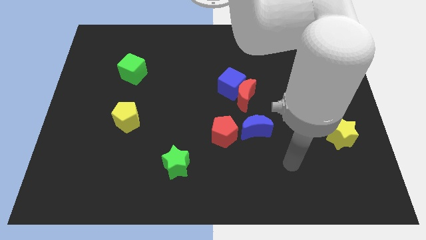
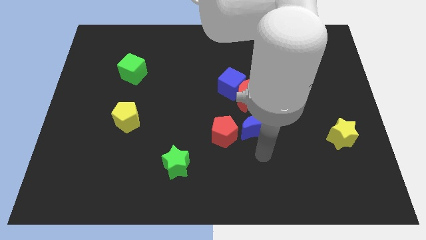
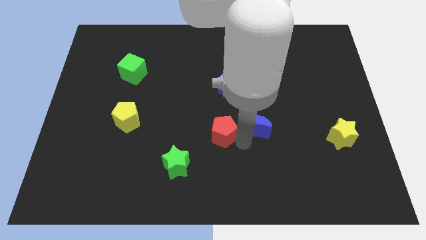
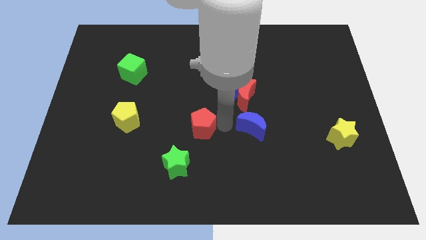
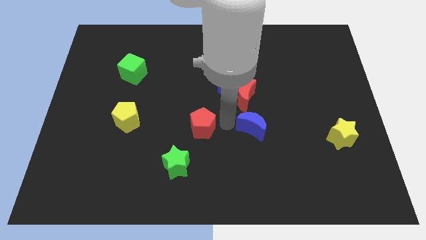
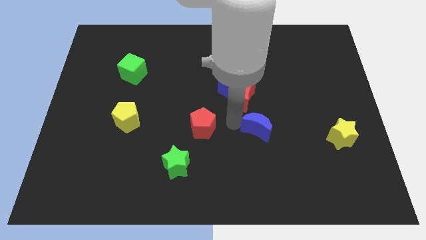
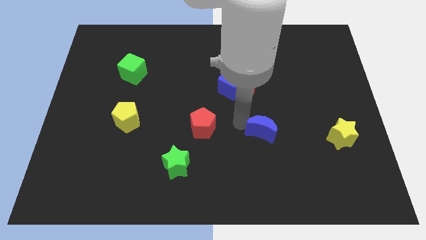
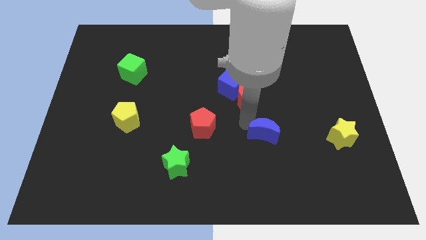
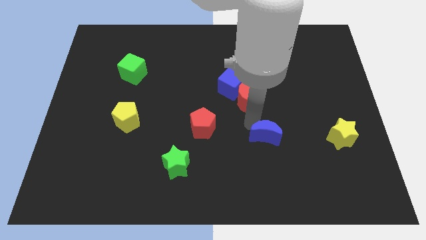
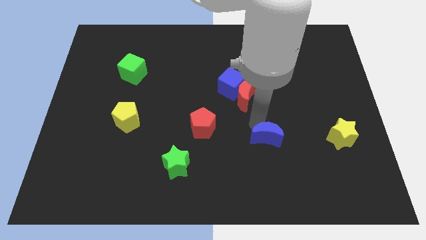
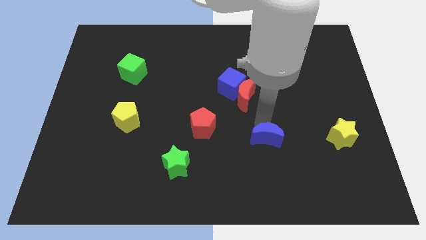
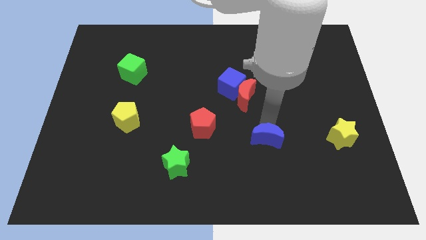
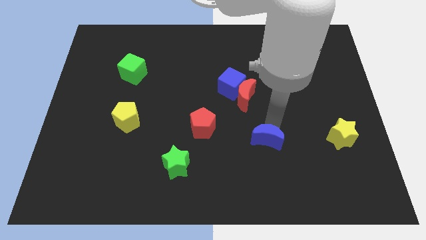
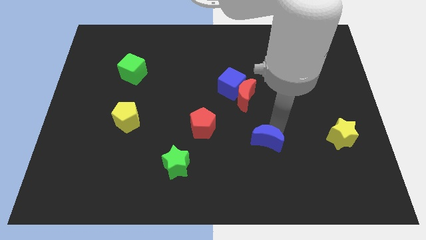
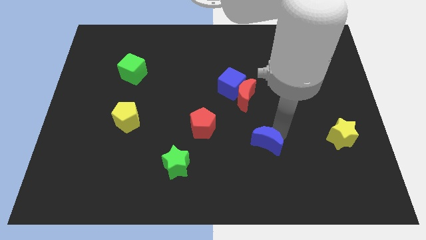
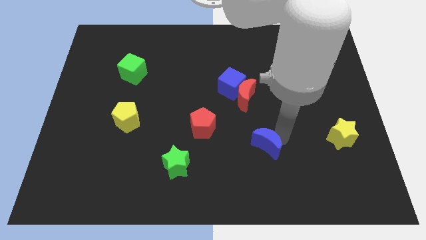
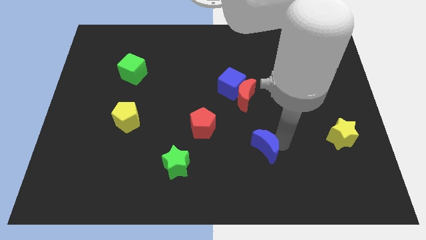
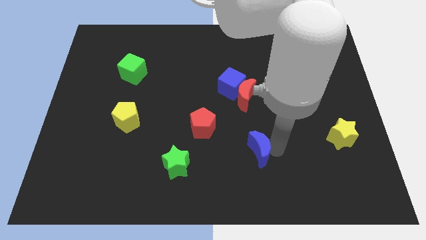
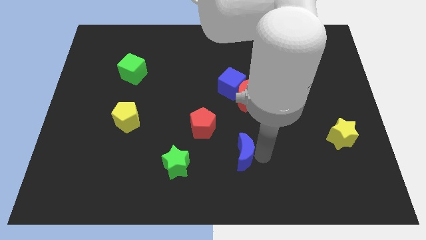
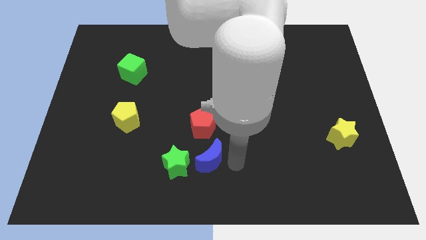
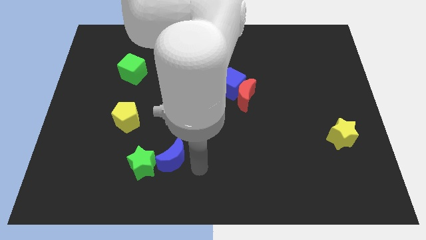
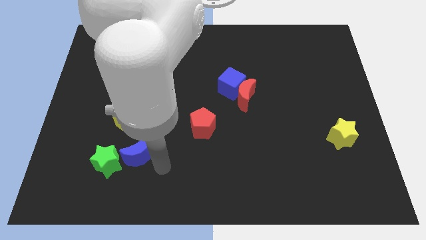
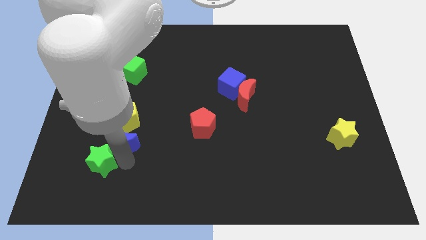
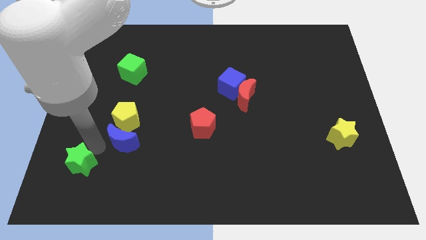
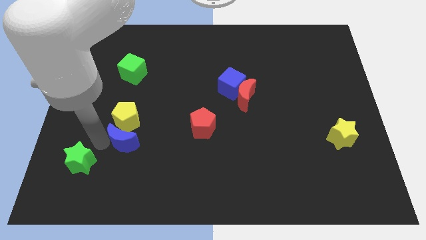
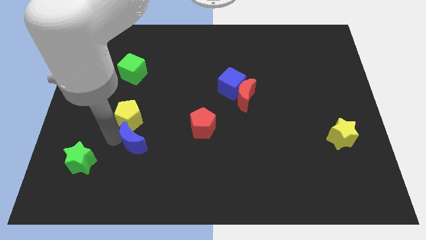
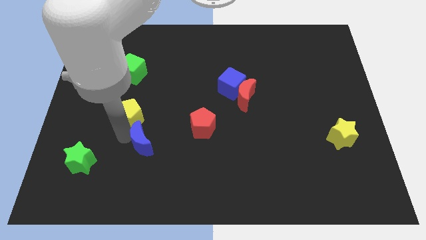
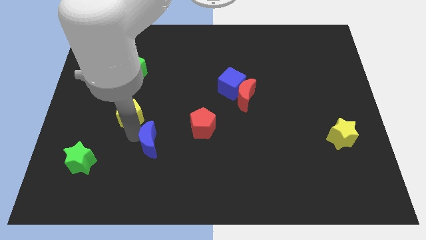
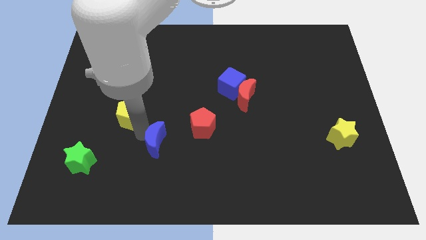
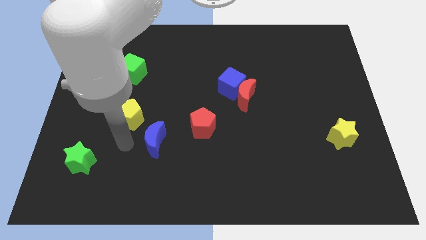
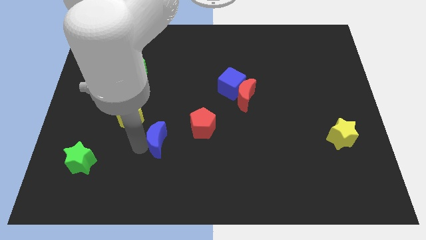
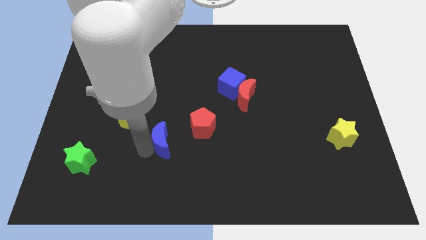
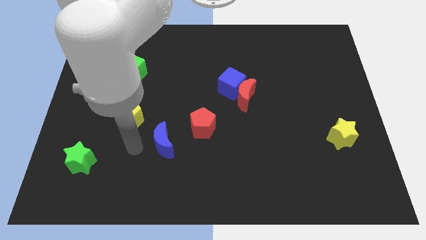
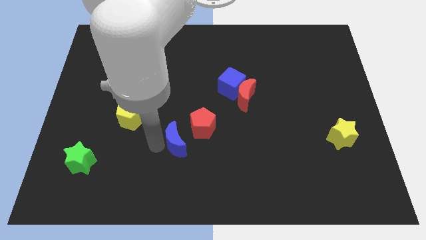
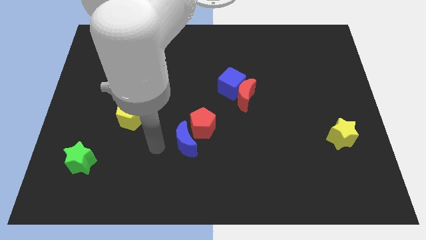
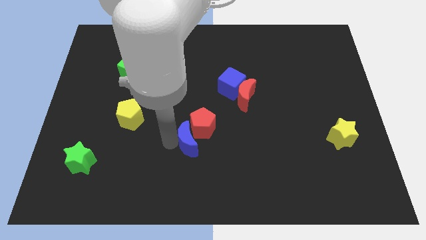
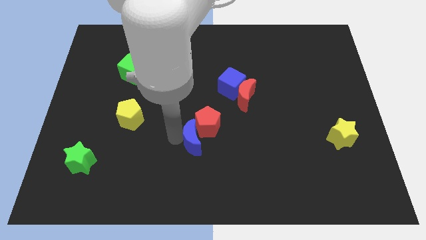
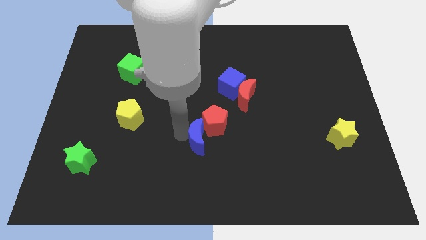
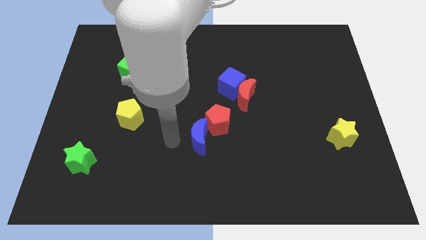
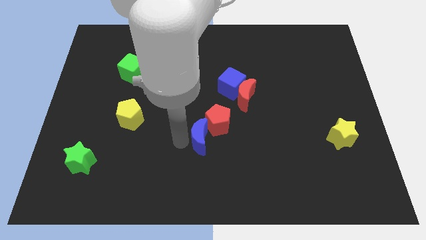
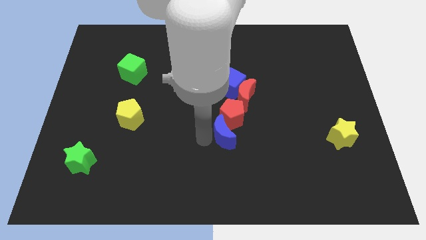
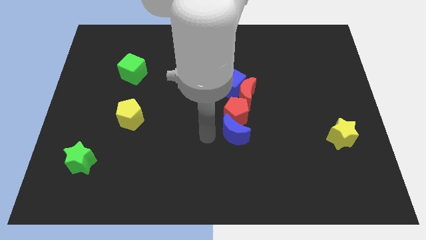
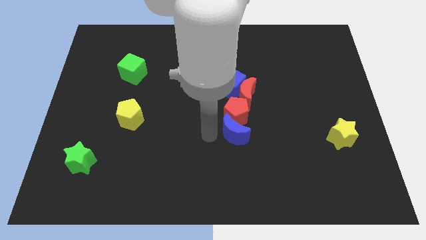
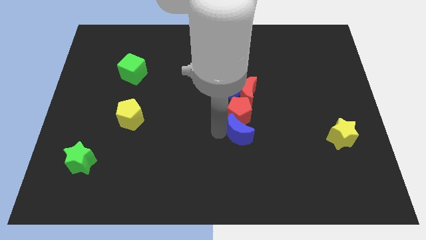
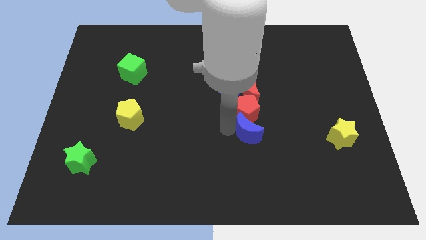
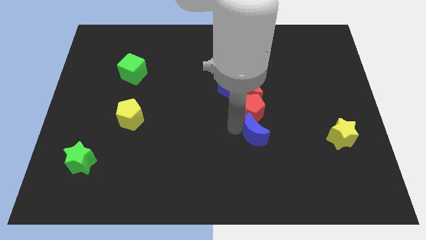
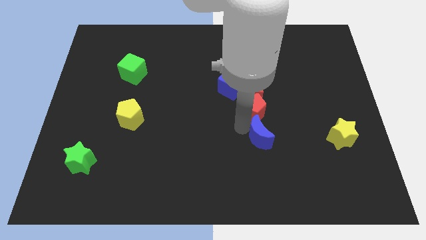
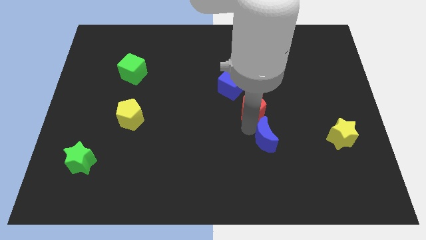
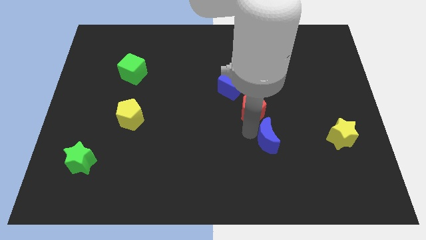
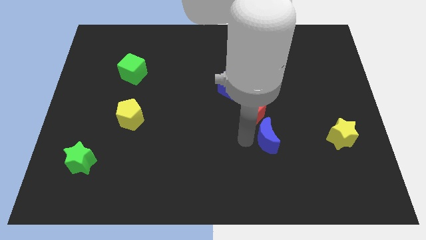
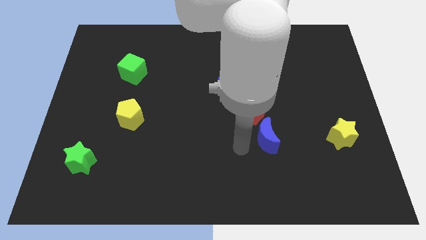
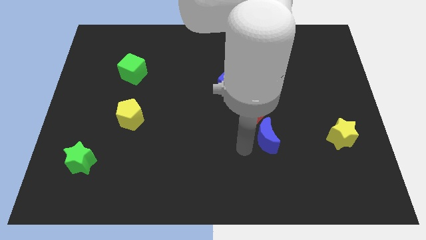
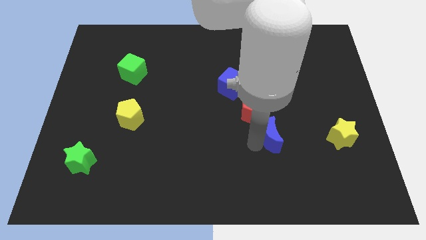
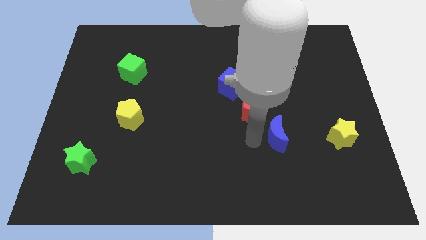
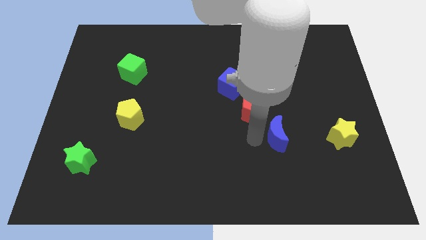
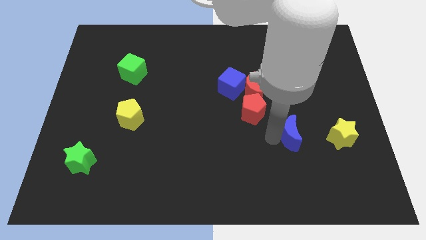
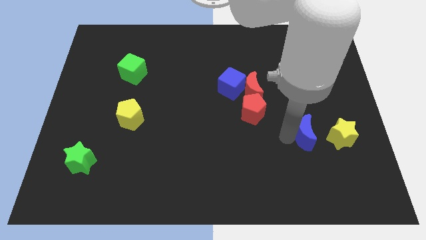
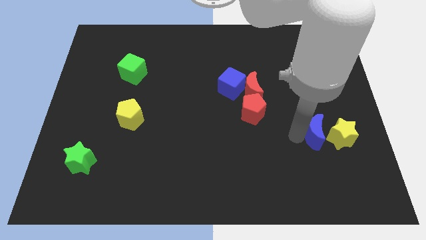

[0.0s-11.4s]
move the blue moon towards the yellow star
